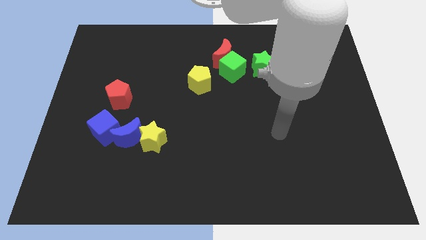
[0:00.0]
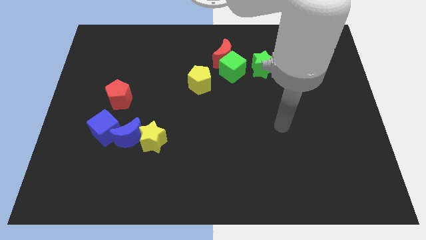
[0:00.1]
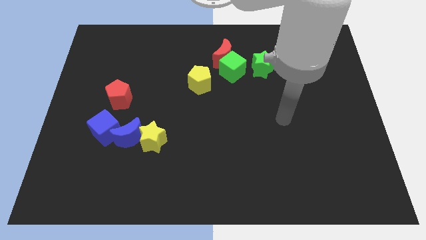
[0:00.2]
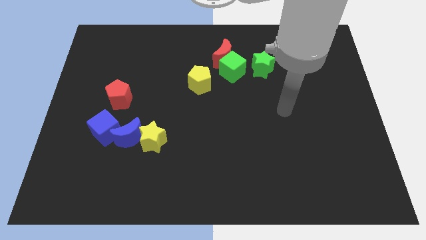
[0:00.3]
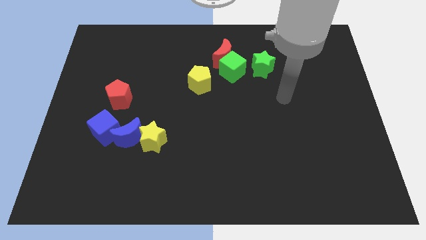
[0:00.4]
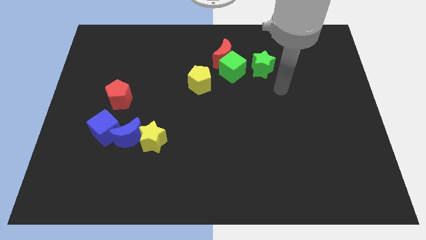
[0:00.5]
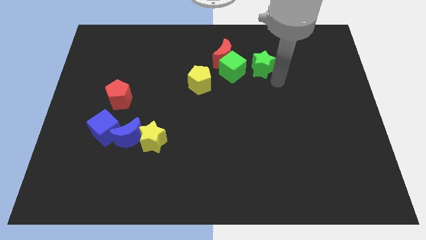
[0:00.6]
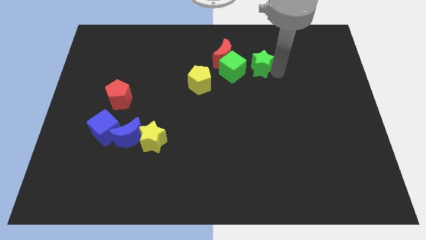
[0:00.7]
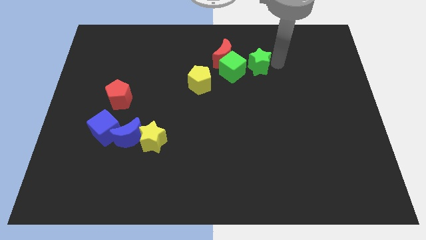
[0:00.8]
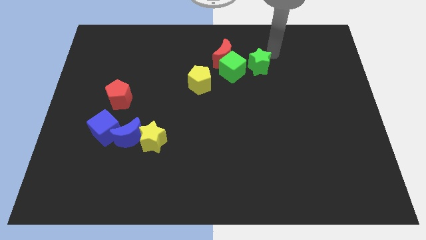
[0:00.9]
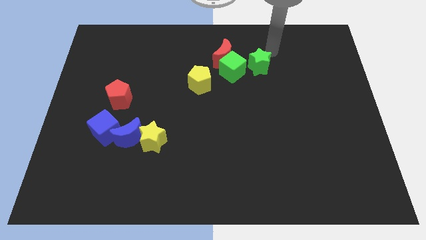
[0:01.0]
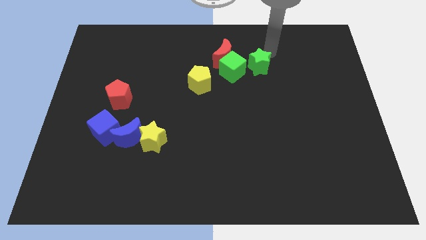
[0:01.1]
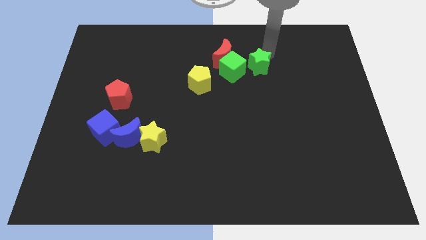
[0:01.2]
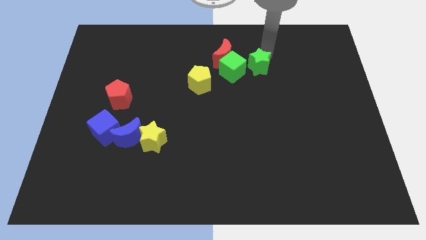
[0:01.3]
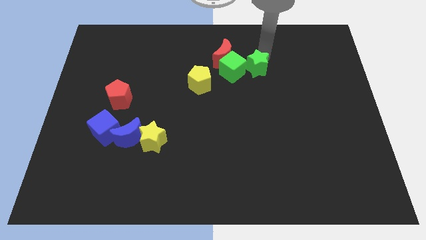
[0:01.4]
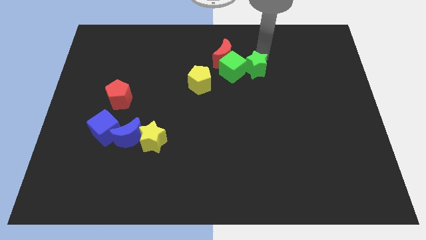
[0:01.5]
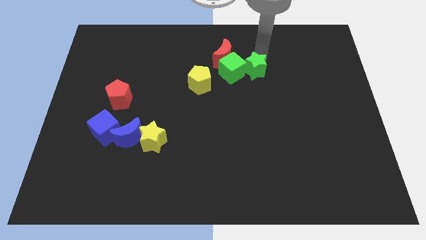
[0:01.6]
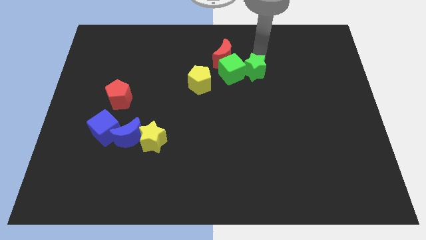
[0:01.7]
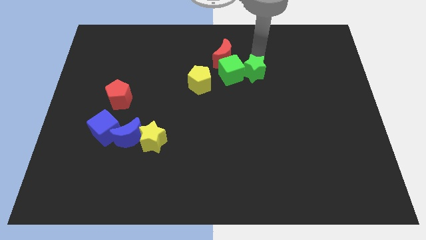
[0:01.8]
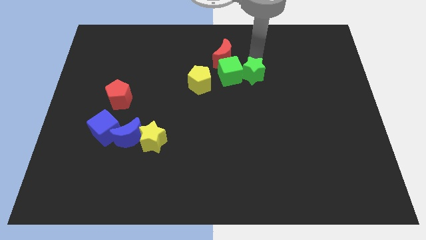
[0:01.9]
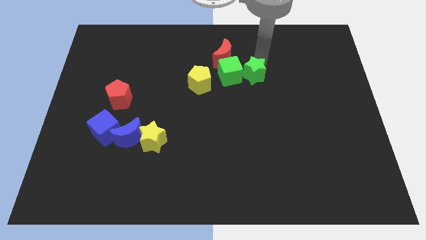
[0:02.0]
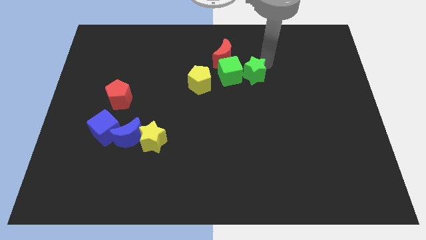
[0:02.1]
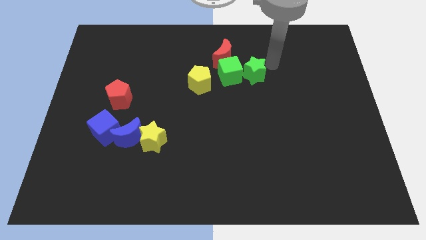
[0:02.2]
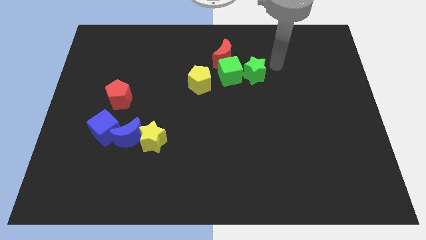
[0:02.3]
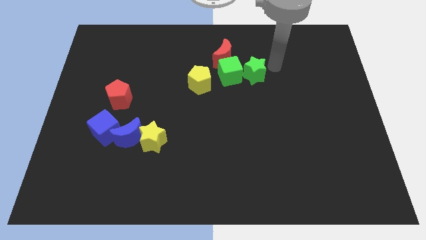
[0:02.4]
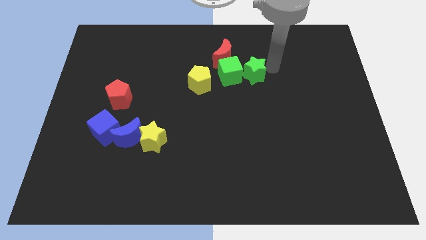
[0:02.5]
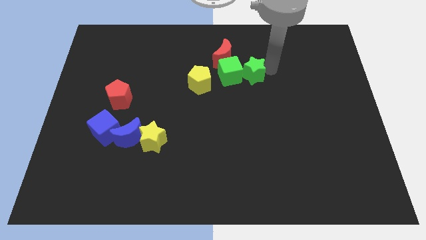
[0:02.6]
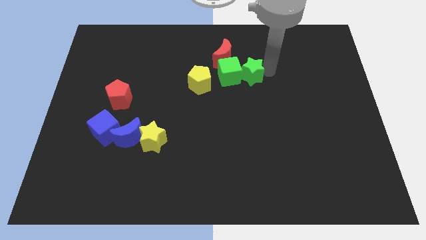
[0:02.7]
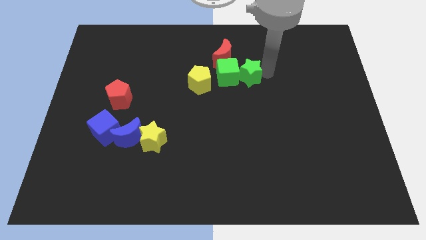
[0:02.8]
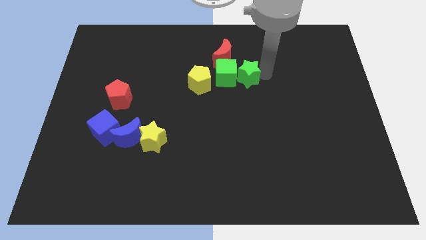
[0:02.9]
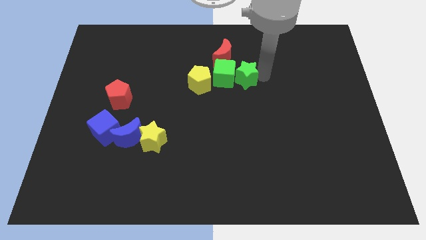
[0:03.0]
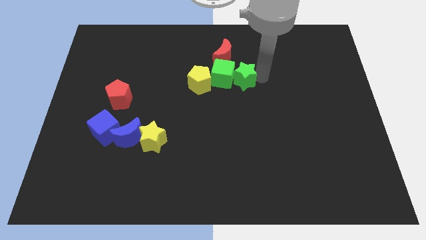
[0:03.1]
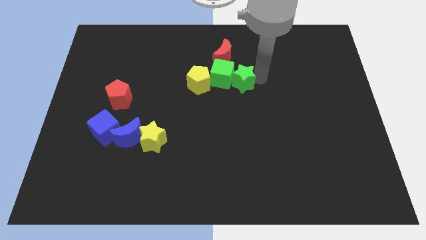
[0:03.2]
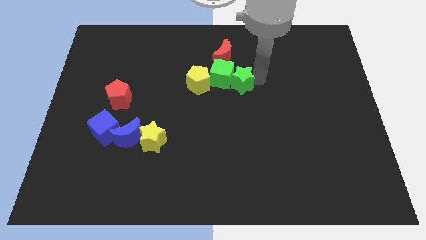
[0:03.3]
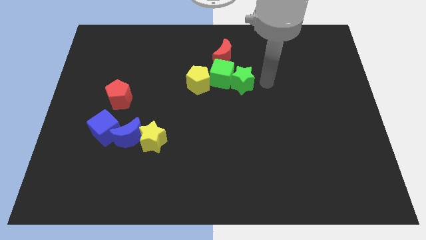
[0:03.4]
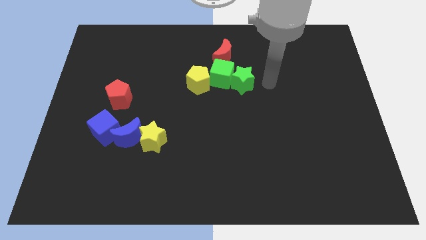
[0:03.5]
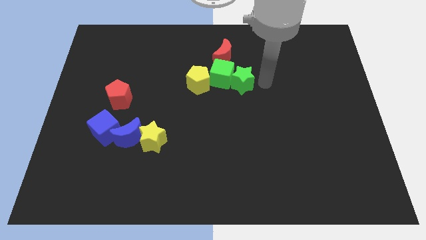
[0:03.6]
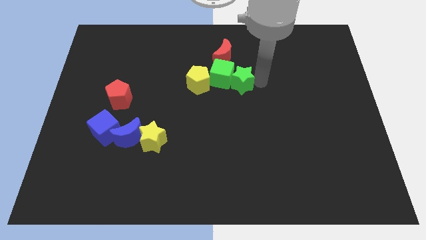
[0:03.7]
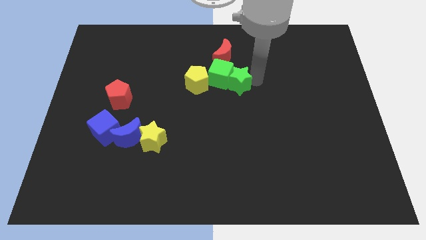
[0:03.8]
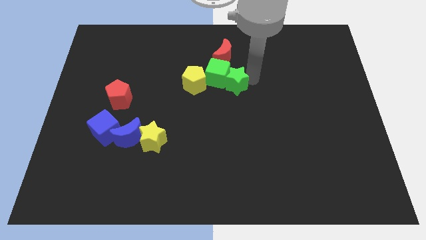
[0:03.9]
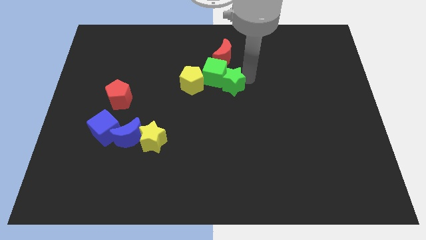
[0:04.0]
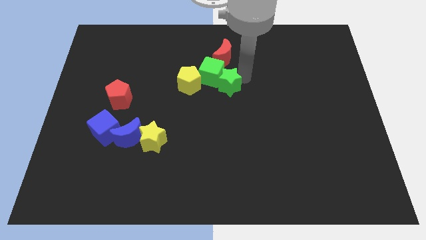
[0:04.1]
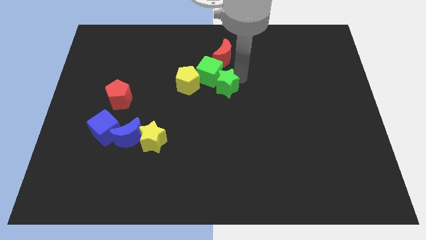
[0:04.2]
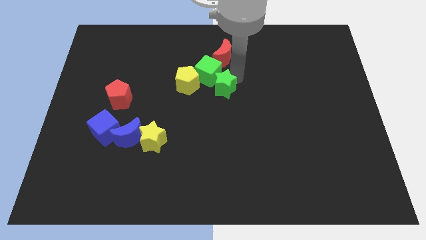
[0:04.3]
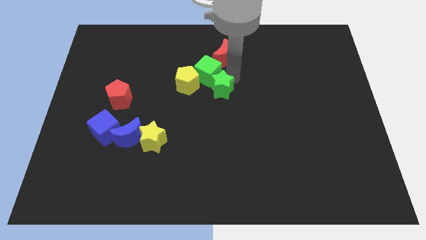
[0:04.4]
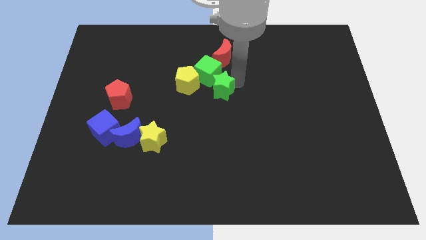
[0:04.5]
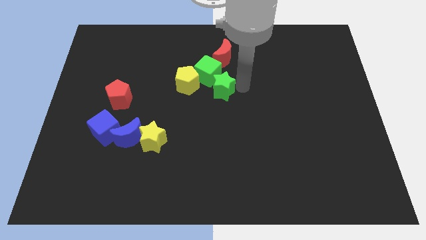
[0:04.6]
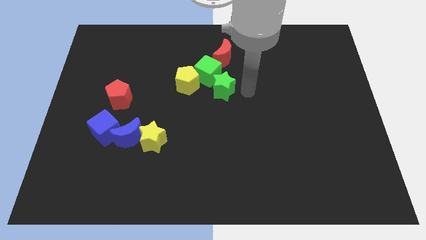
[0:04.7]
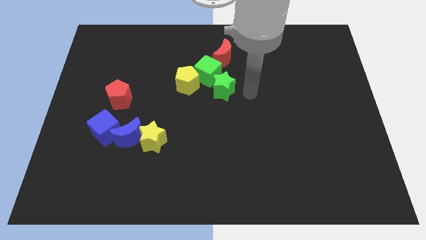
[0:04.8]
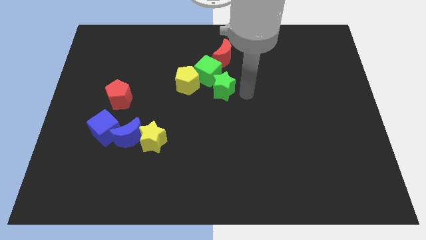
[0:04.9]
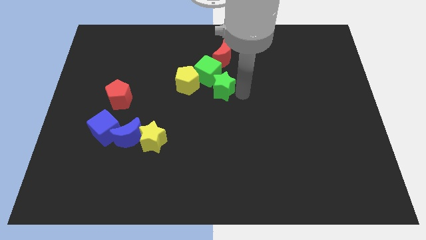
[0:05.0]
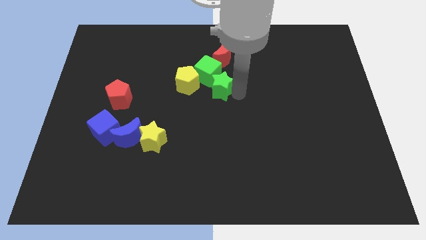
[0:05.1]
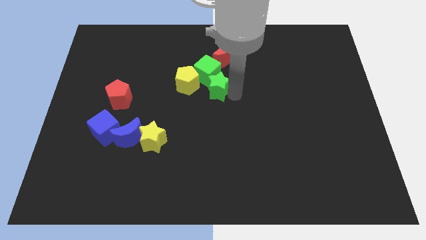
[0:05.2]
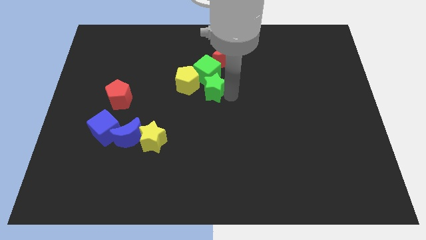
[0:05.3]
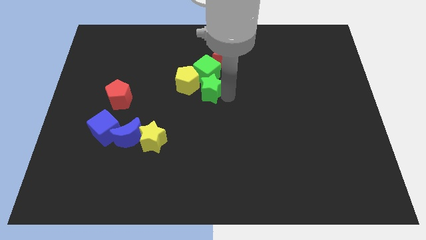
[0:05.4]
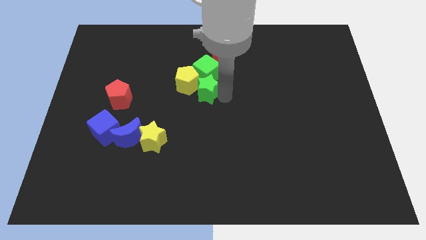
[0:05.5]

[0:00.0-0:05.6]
move the green star next to the yellow pentagon

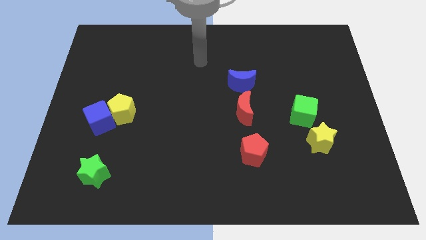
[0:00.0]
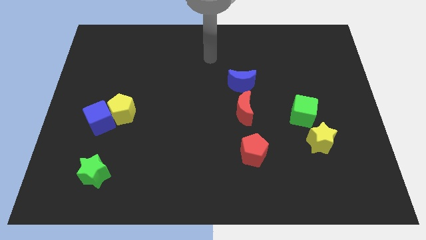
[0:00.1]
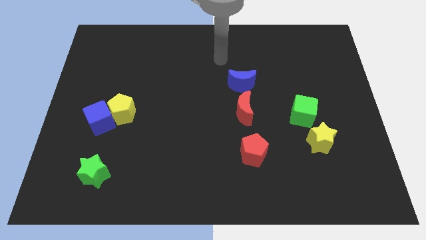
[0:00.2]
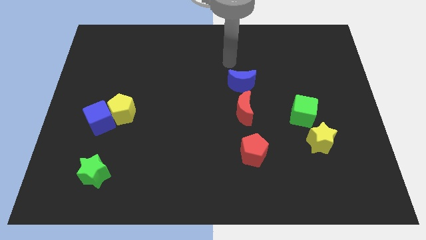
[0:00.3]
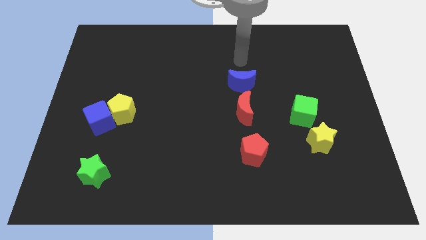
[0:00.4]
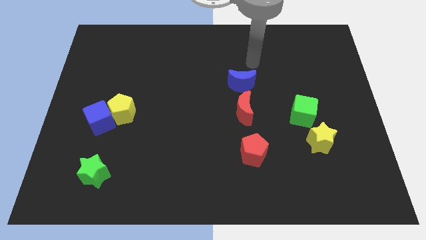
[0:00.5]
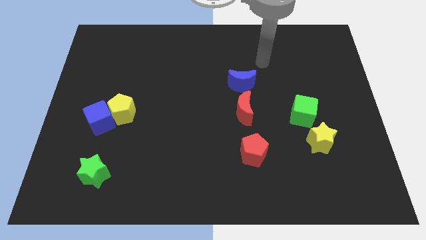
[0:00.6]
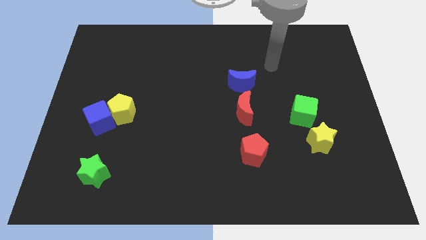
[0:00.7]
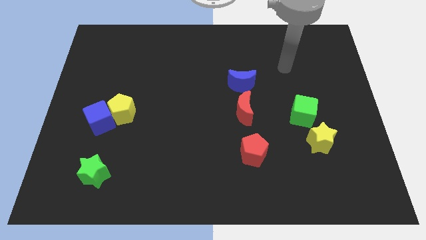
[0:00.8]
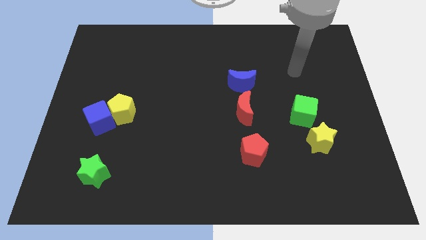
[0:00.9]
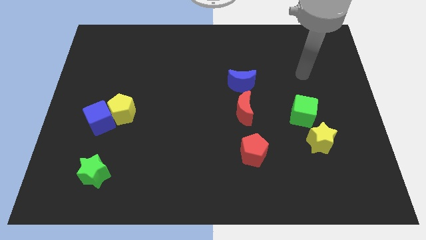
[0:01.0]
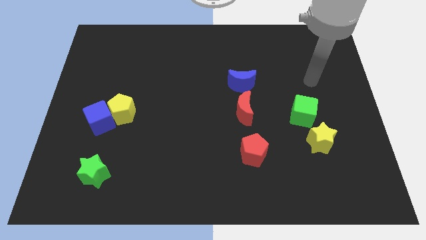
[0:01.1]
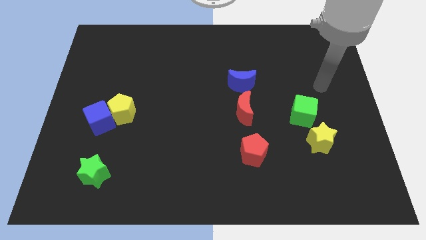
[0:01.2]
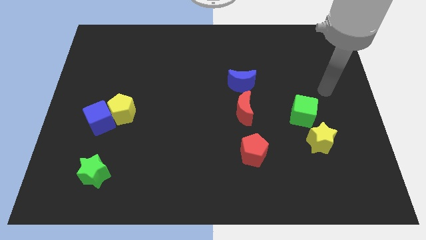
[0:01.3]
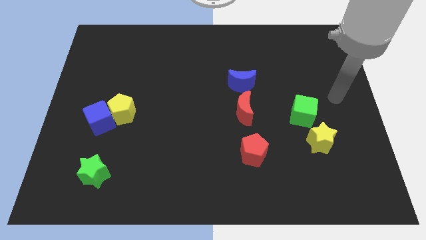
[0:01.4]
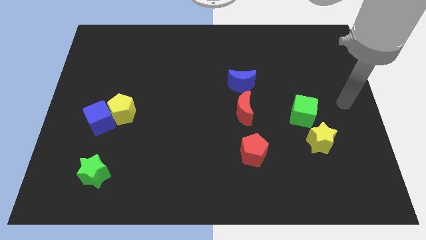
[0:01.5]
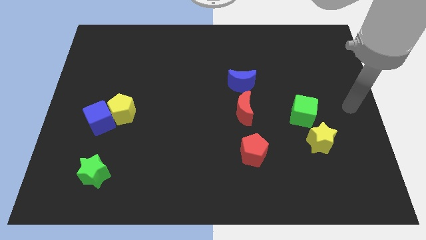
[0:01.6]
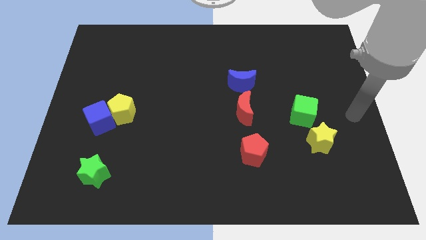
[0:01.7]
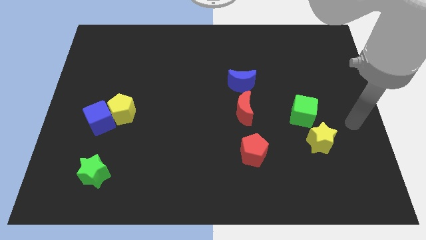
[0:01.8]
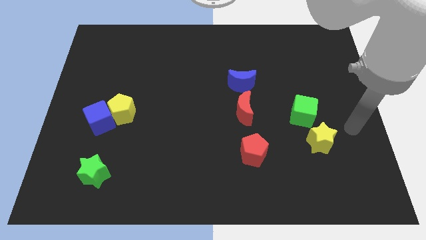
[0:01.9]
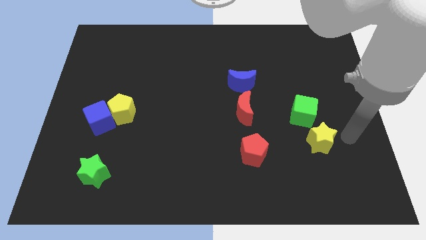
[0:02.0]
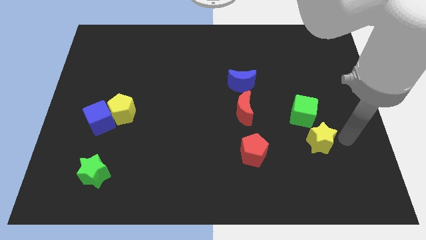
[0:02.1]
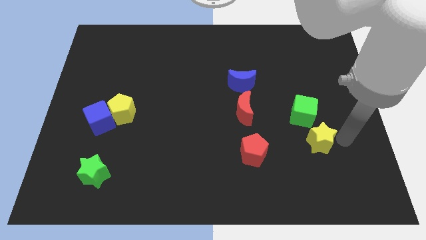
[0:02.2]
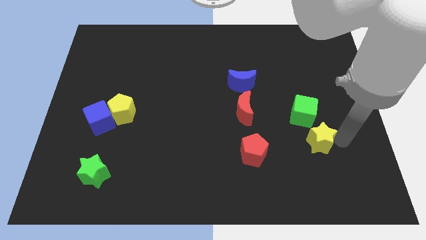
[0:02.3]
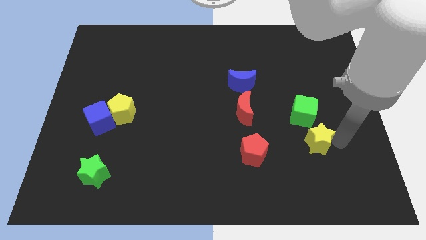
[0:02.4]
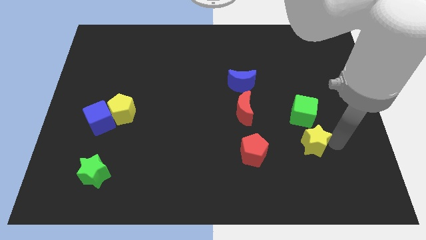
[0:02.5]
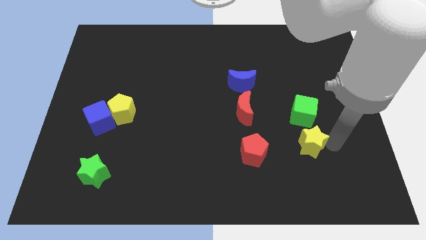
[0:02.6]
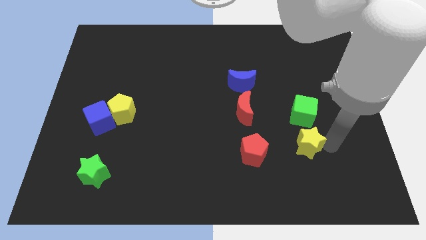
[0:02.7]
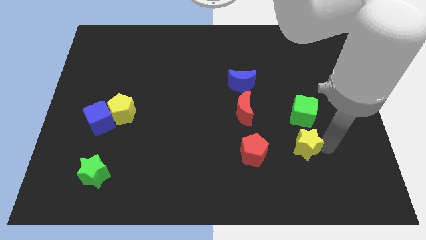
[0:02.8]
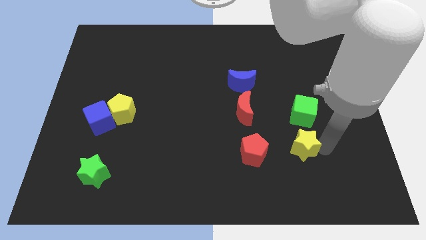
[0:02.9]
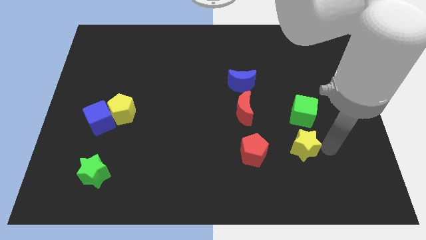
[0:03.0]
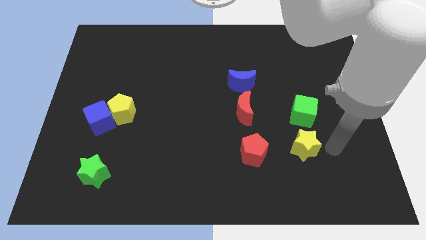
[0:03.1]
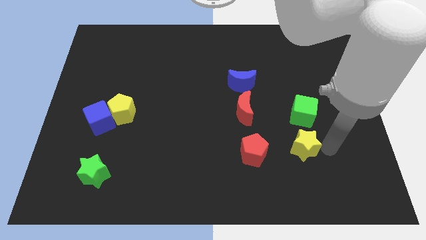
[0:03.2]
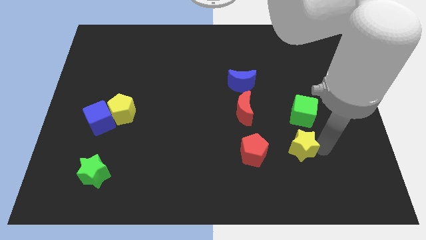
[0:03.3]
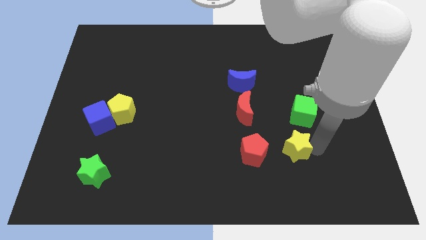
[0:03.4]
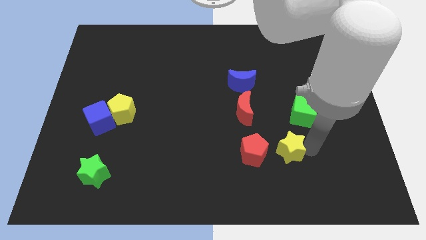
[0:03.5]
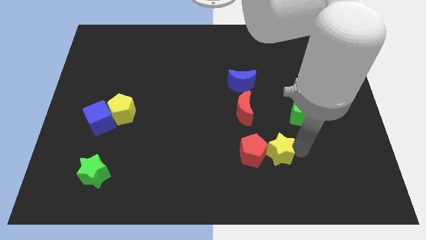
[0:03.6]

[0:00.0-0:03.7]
slide the yellow star to the red pentagon
